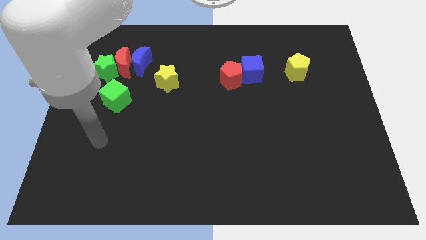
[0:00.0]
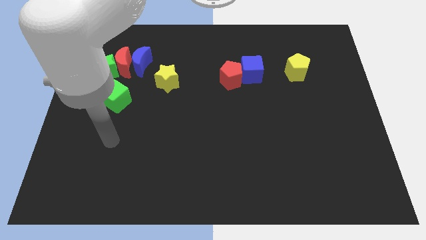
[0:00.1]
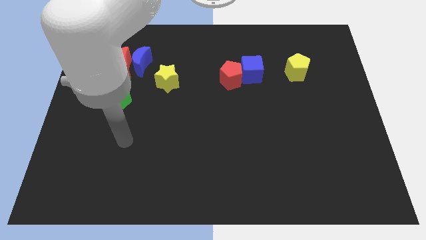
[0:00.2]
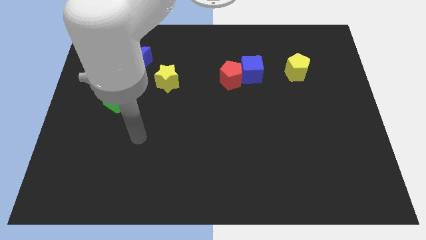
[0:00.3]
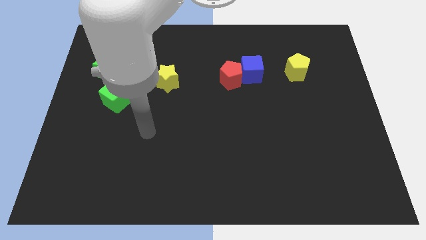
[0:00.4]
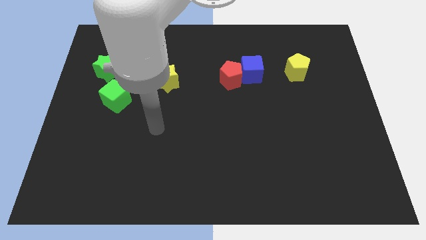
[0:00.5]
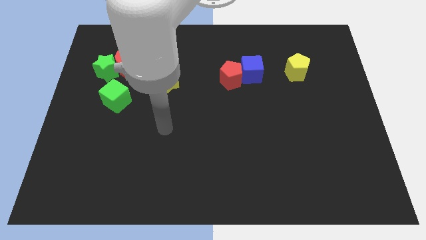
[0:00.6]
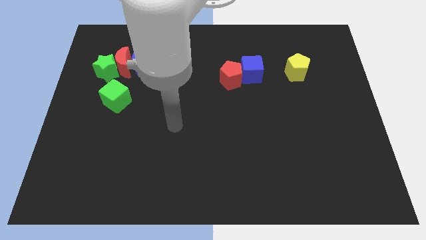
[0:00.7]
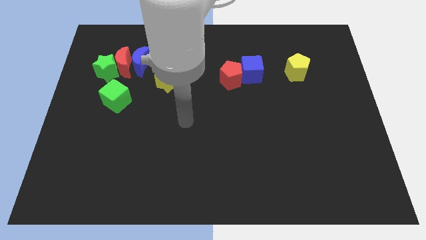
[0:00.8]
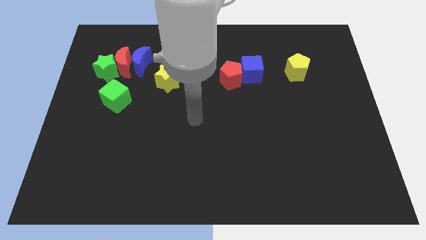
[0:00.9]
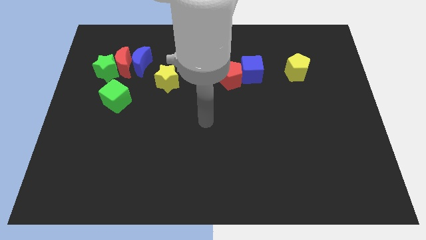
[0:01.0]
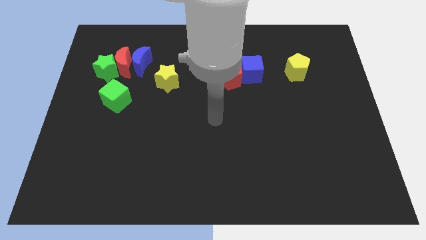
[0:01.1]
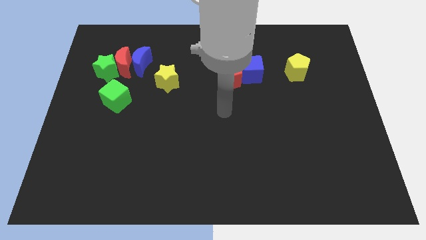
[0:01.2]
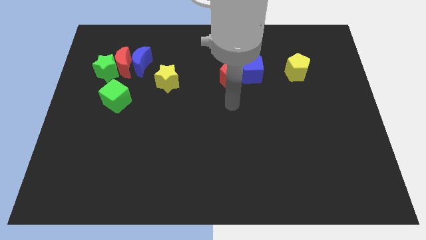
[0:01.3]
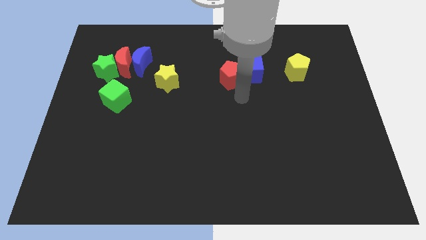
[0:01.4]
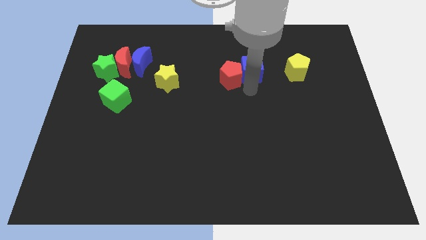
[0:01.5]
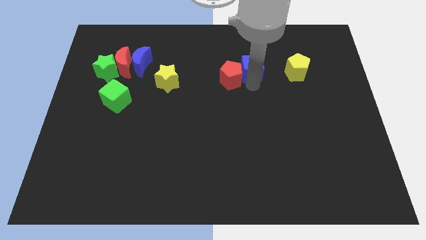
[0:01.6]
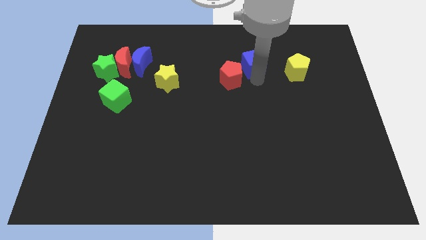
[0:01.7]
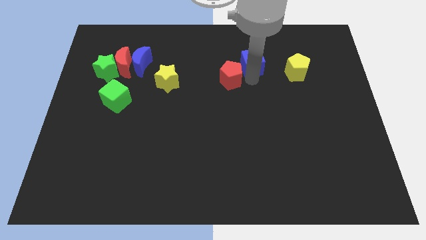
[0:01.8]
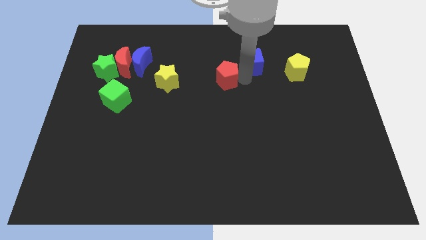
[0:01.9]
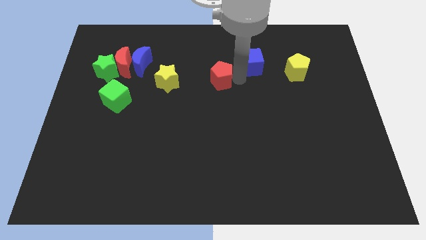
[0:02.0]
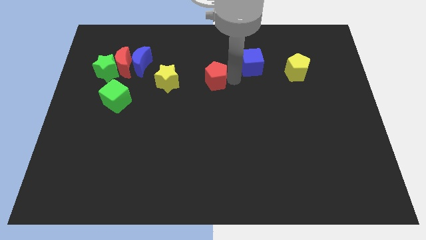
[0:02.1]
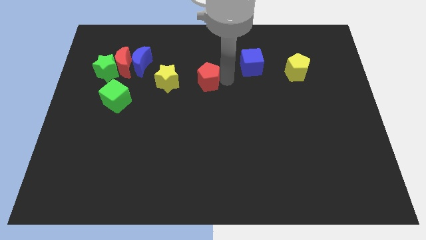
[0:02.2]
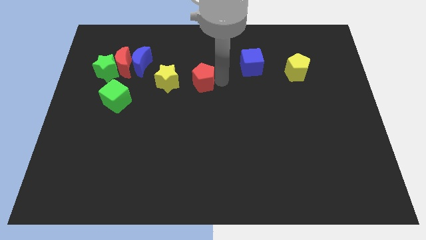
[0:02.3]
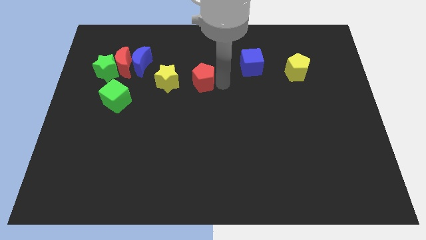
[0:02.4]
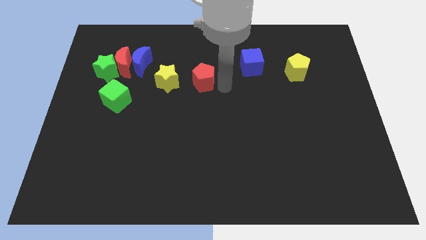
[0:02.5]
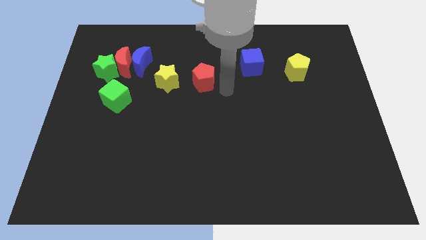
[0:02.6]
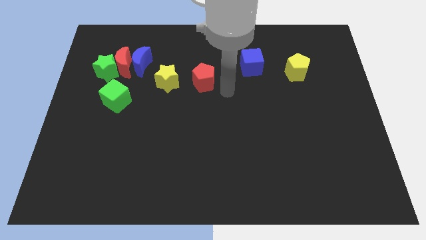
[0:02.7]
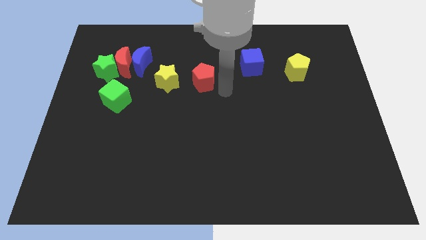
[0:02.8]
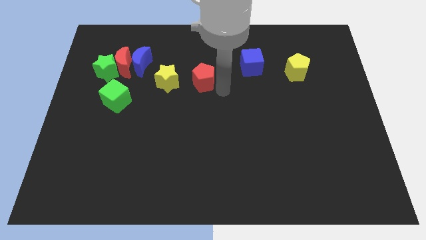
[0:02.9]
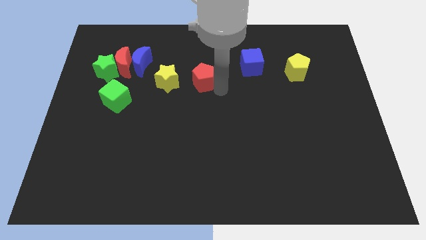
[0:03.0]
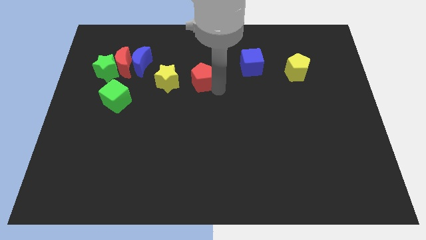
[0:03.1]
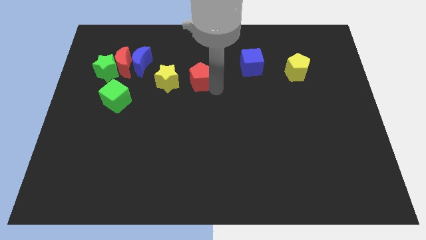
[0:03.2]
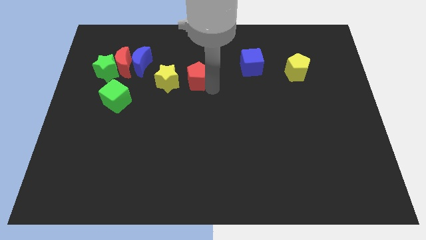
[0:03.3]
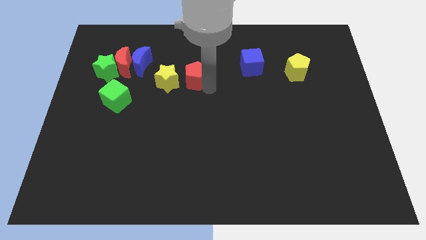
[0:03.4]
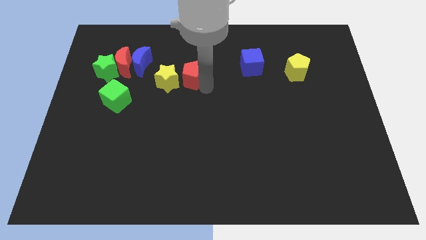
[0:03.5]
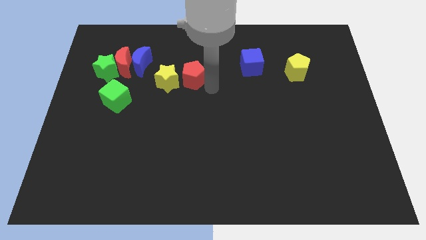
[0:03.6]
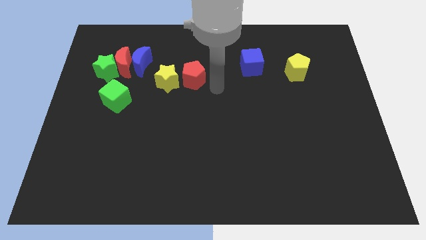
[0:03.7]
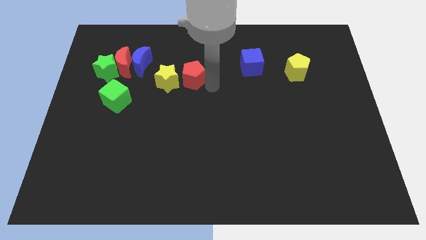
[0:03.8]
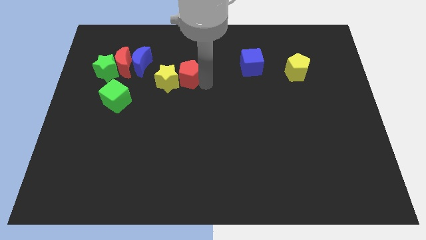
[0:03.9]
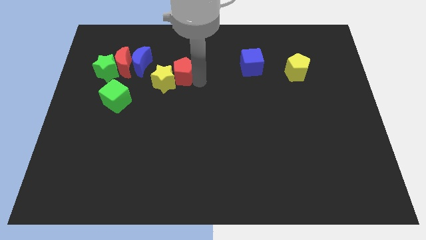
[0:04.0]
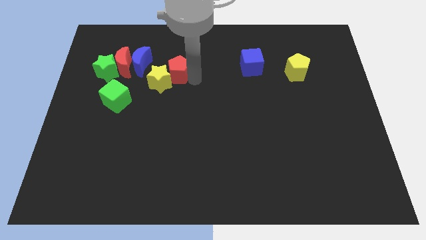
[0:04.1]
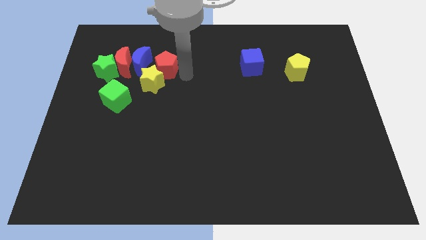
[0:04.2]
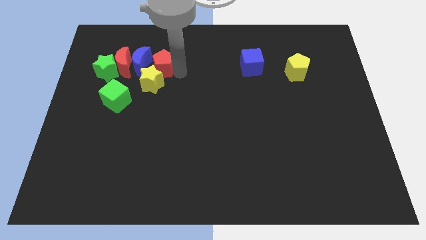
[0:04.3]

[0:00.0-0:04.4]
put the red pentagon close to the blue moon

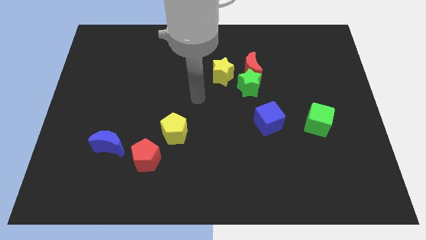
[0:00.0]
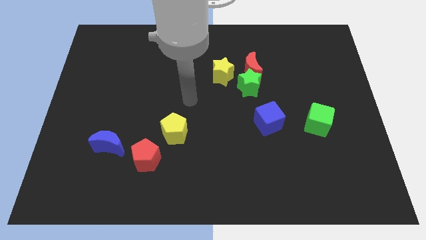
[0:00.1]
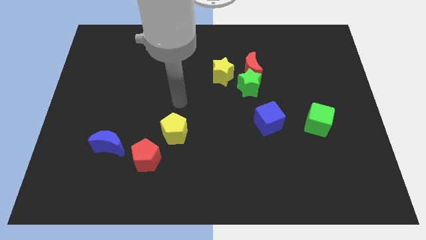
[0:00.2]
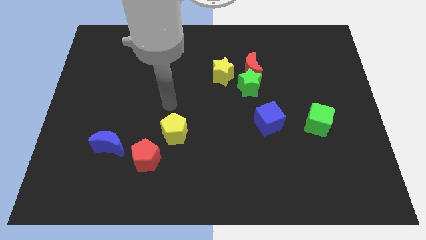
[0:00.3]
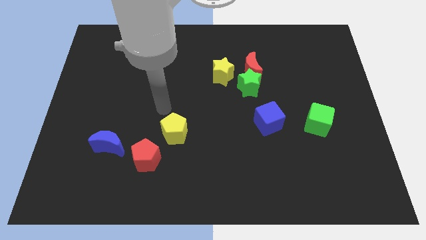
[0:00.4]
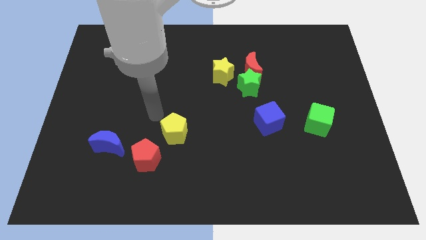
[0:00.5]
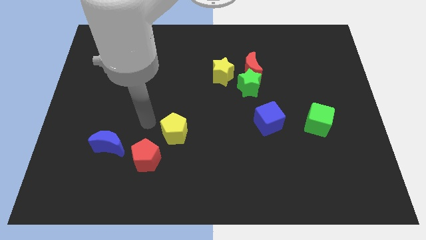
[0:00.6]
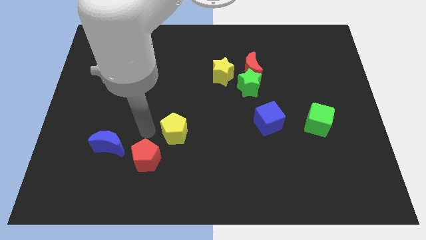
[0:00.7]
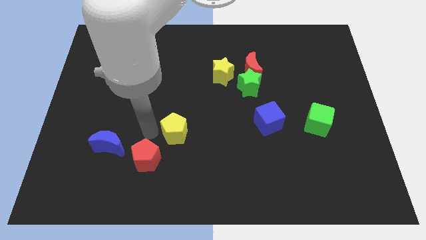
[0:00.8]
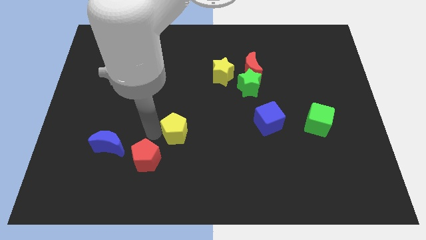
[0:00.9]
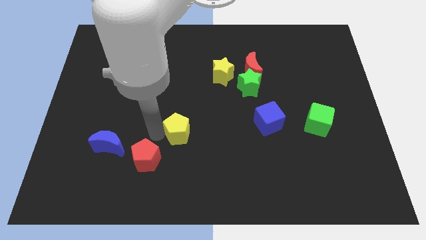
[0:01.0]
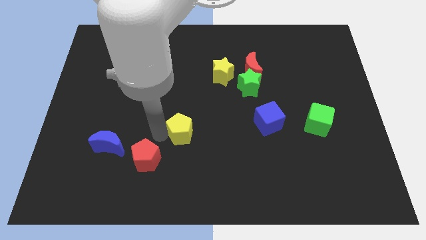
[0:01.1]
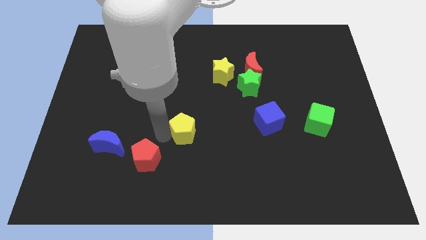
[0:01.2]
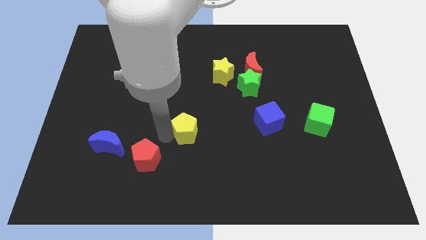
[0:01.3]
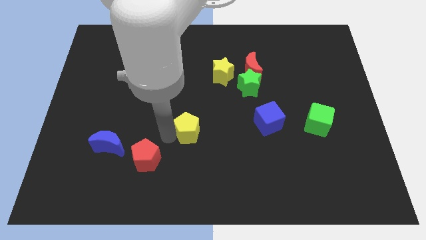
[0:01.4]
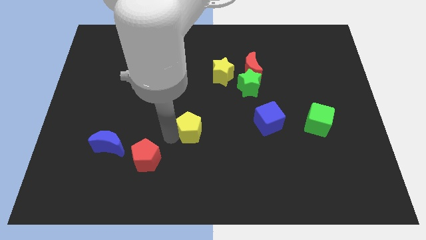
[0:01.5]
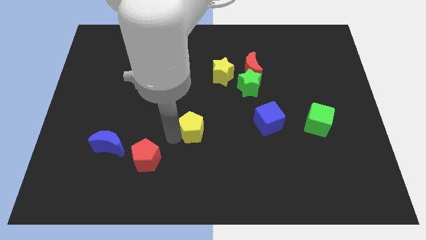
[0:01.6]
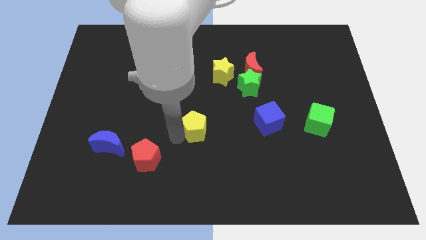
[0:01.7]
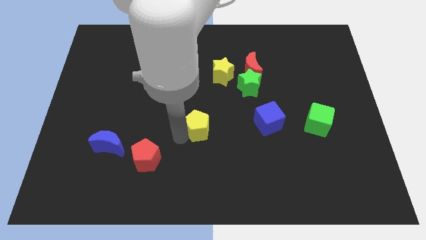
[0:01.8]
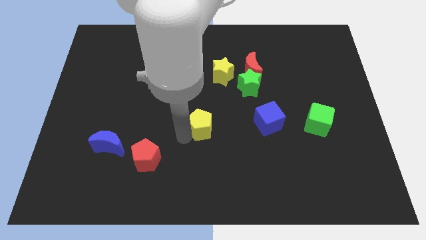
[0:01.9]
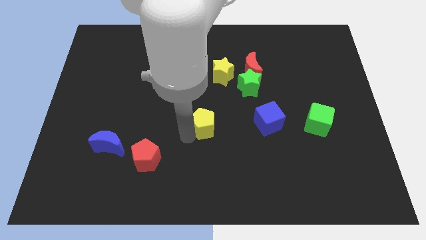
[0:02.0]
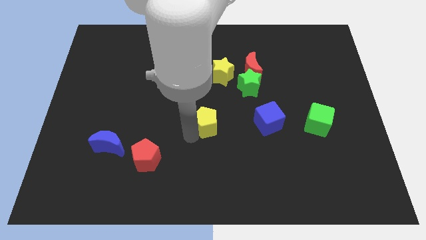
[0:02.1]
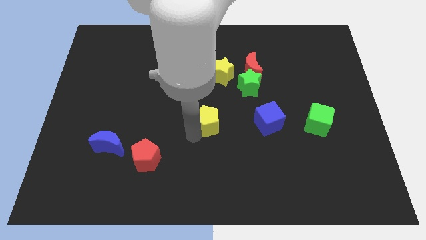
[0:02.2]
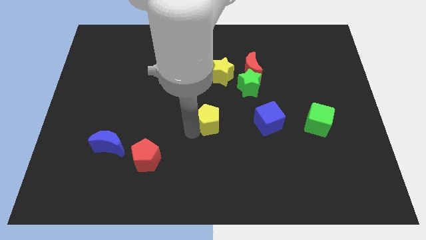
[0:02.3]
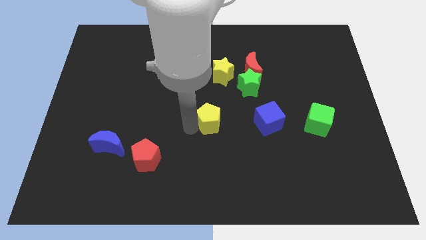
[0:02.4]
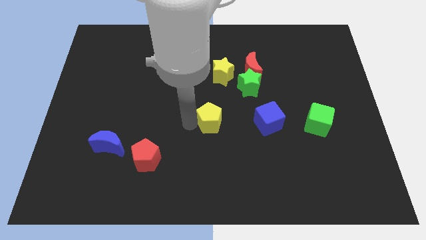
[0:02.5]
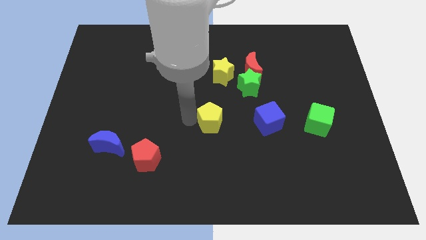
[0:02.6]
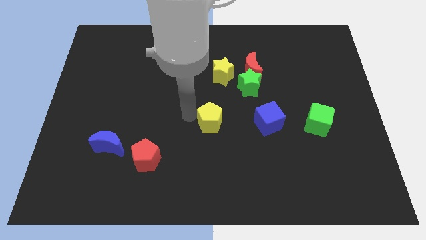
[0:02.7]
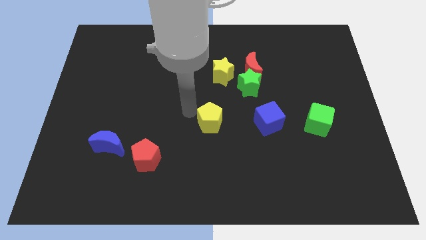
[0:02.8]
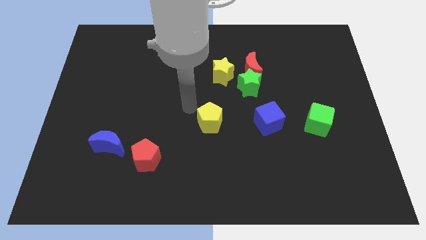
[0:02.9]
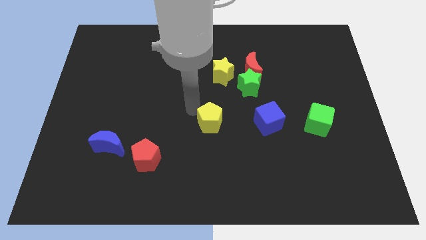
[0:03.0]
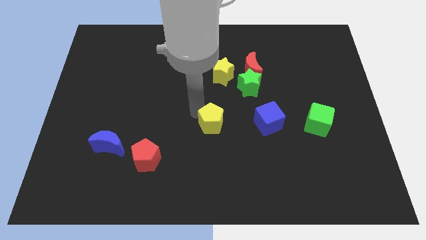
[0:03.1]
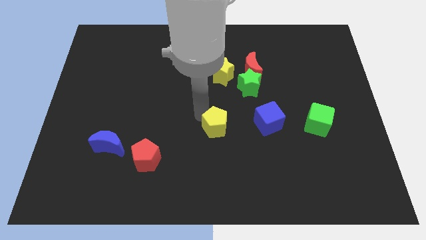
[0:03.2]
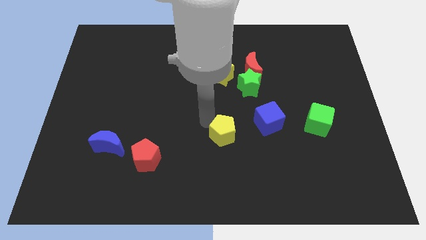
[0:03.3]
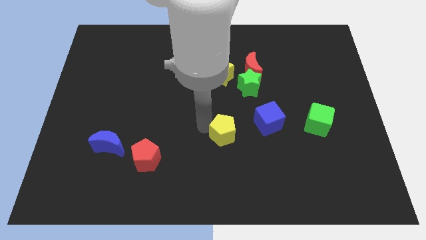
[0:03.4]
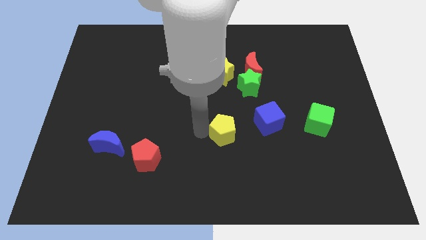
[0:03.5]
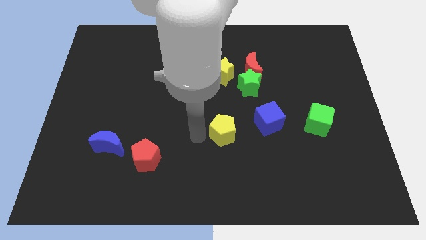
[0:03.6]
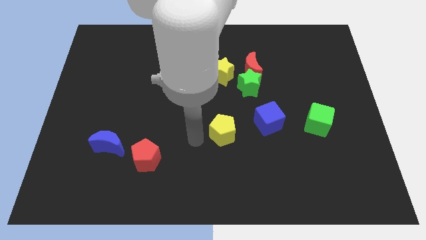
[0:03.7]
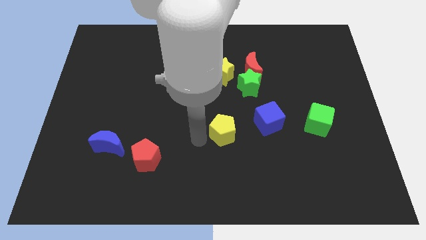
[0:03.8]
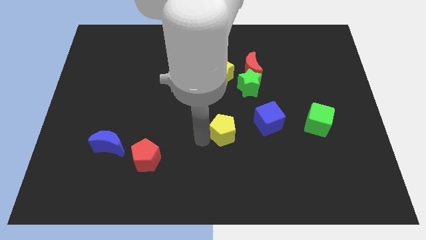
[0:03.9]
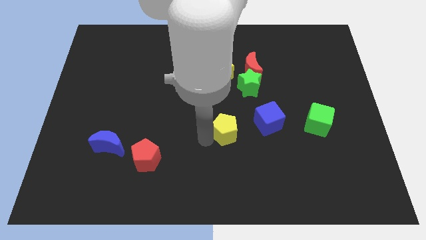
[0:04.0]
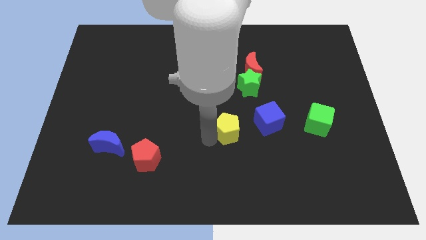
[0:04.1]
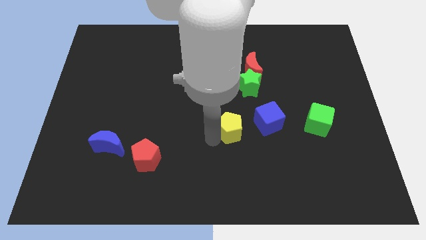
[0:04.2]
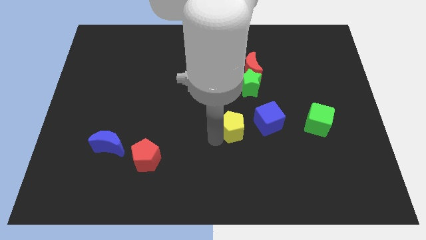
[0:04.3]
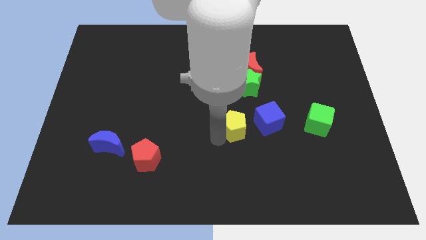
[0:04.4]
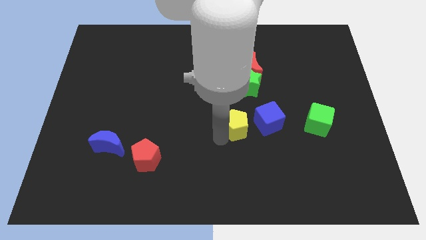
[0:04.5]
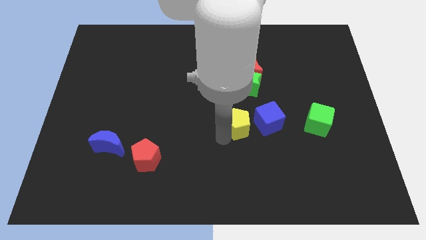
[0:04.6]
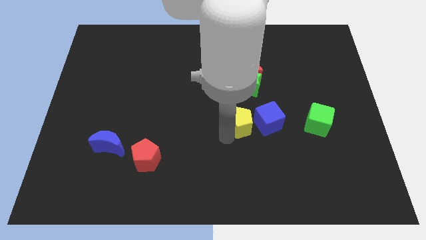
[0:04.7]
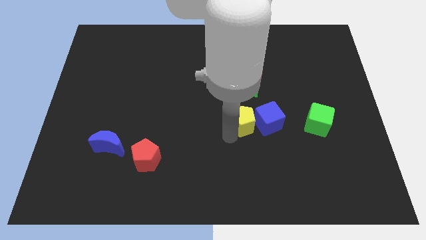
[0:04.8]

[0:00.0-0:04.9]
push the yellow pentagon close to the blue cube
